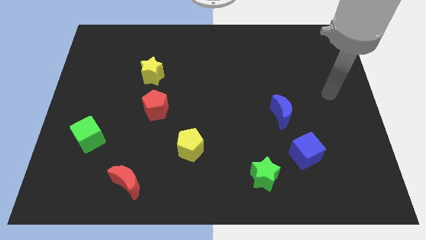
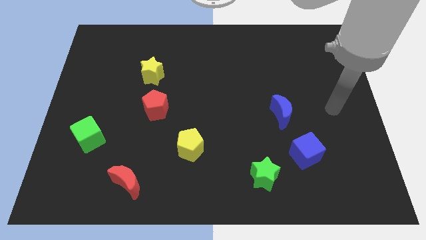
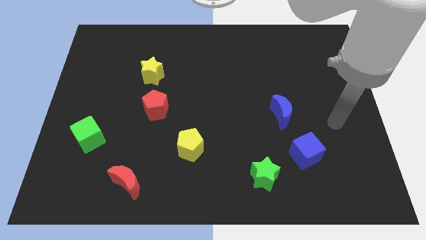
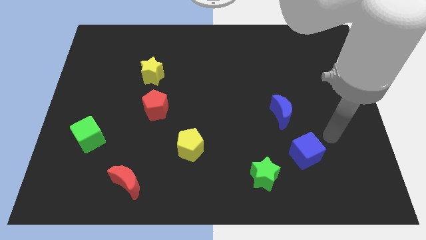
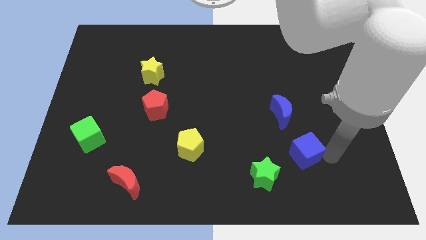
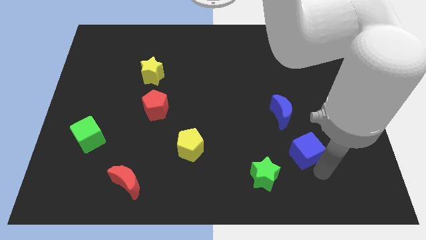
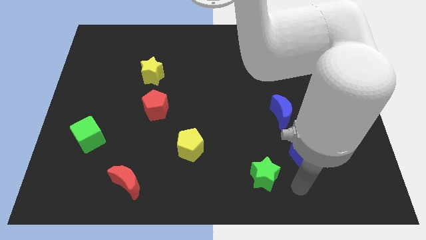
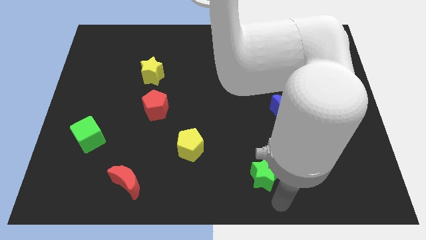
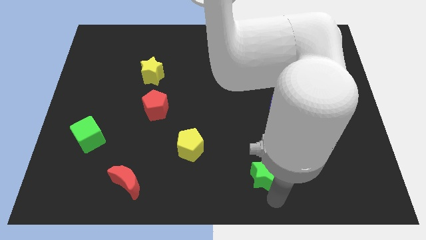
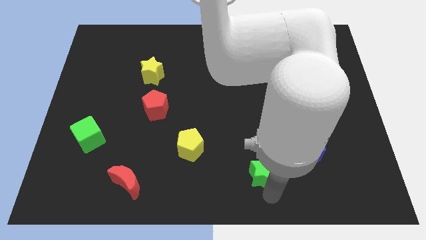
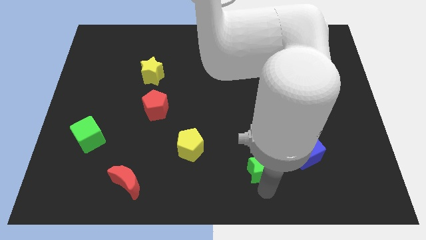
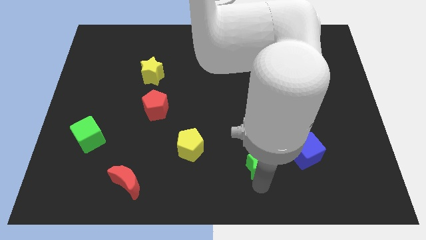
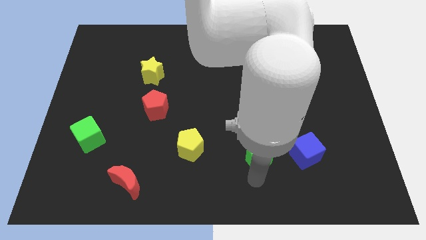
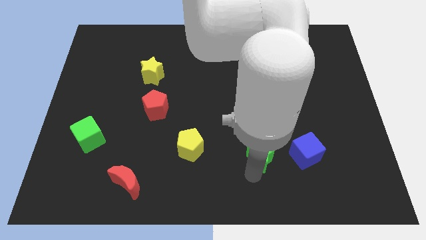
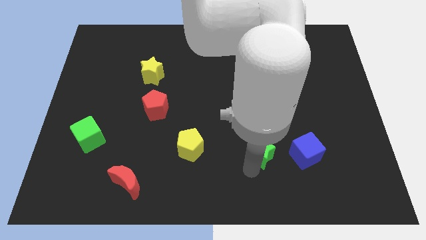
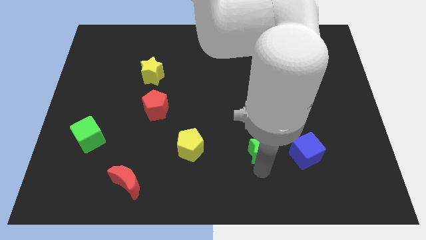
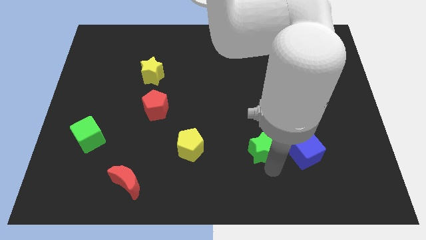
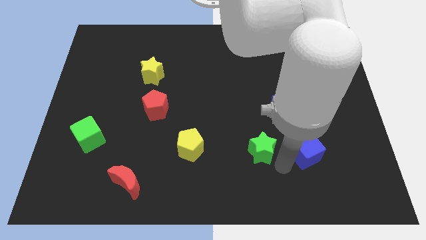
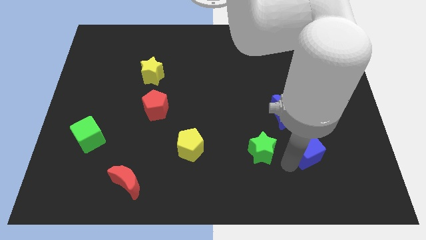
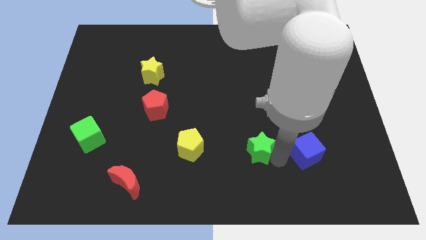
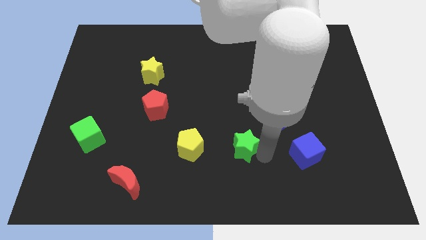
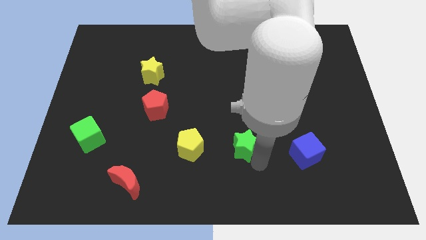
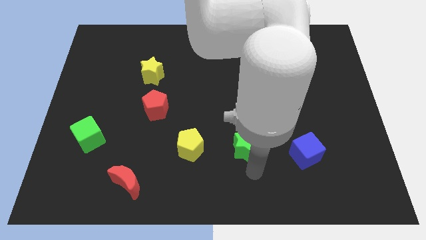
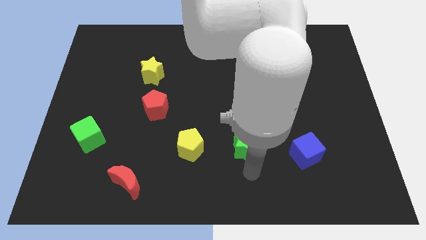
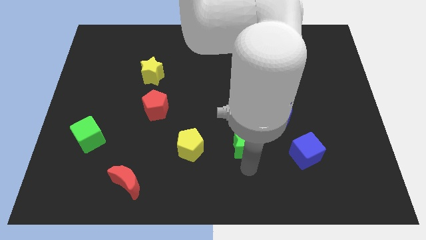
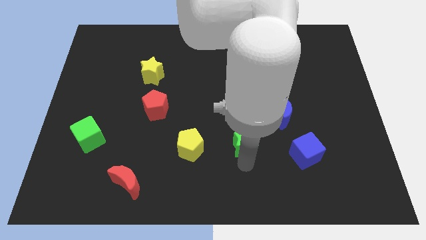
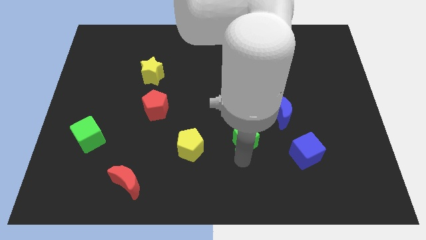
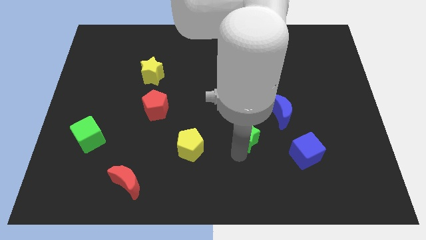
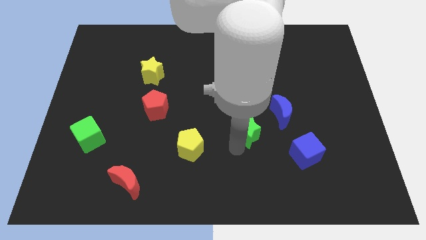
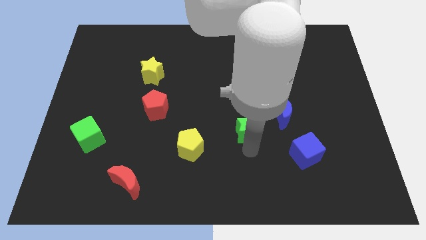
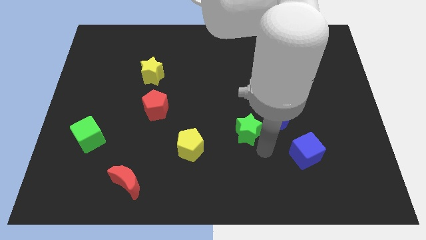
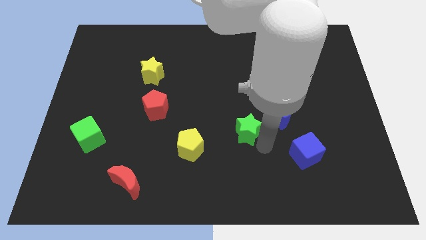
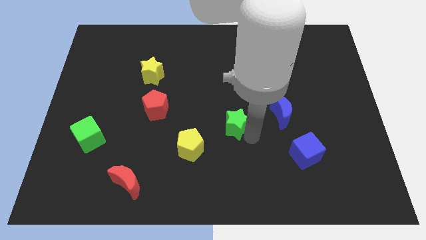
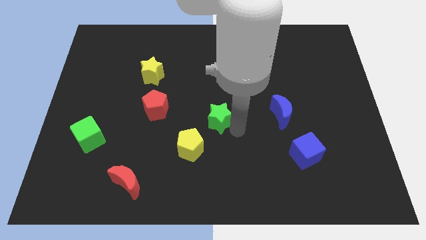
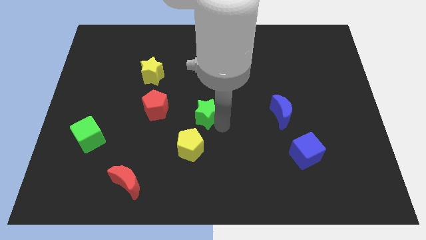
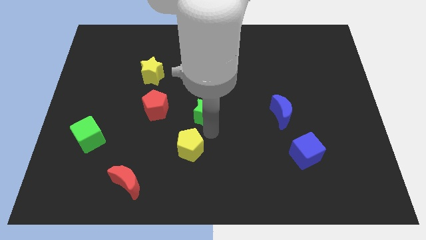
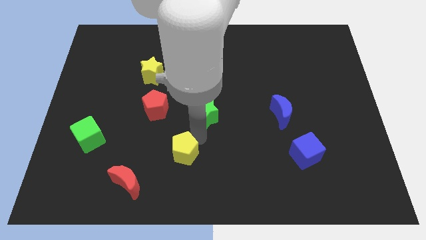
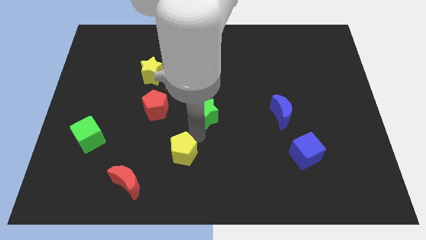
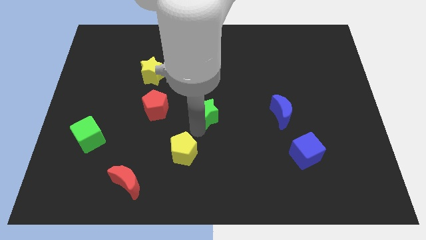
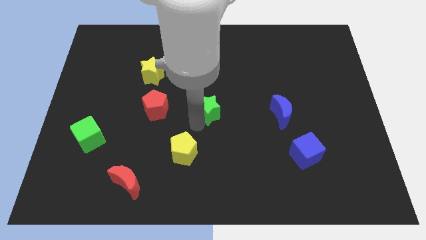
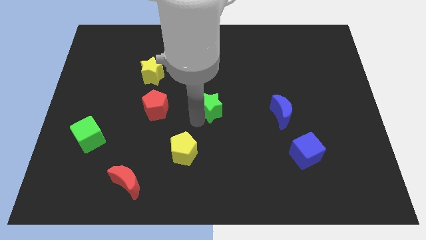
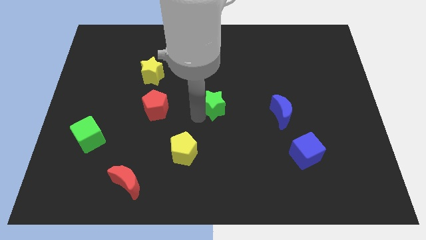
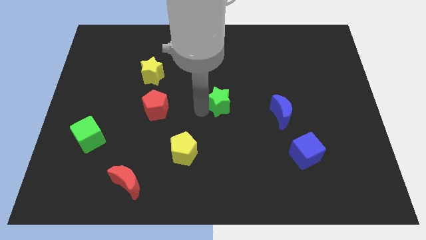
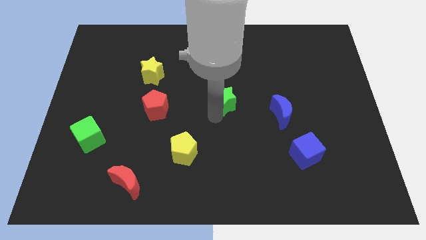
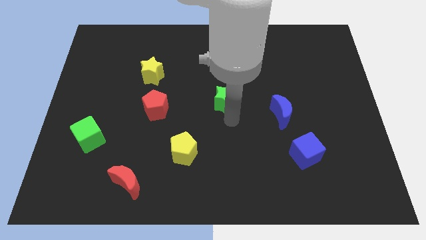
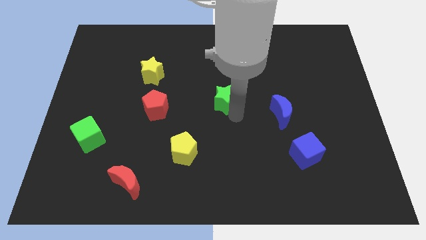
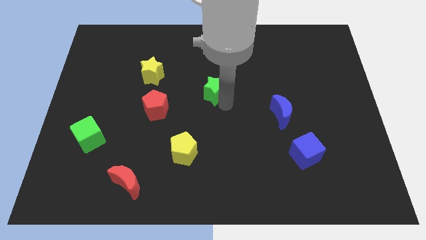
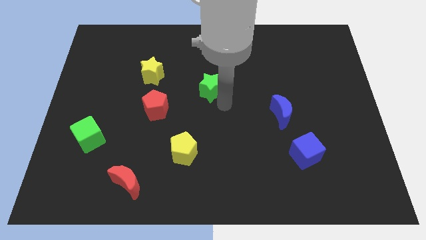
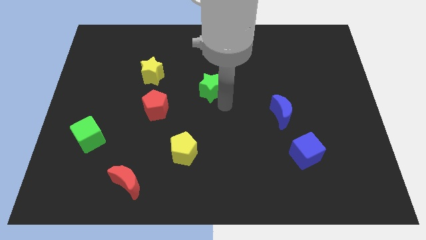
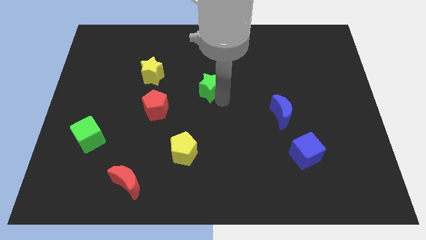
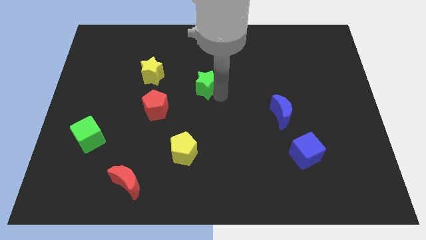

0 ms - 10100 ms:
push the green star just right of the yellow star

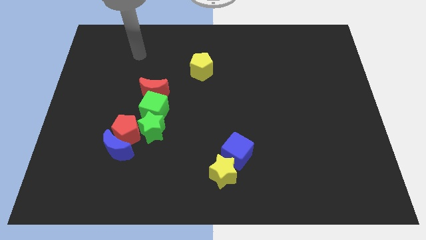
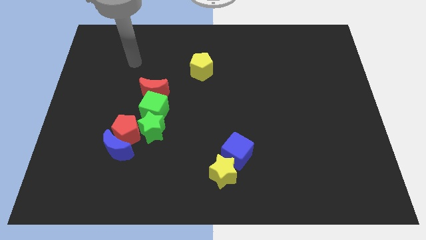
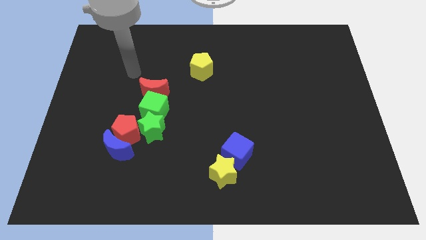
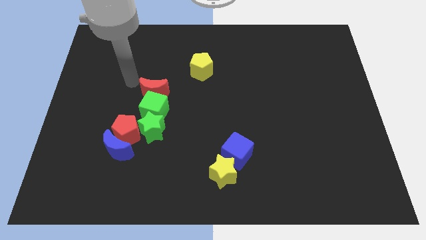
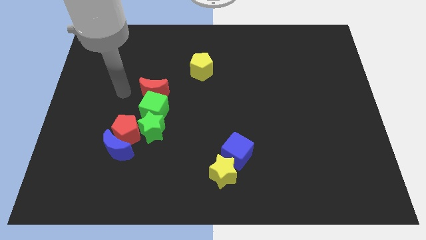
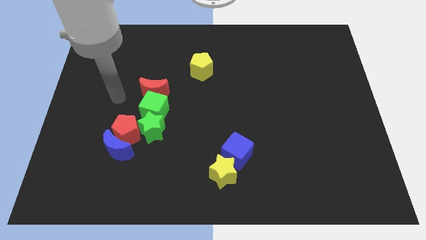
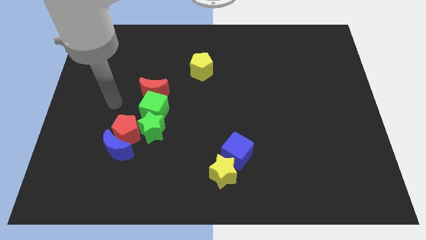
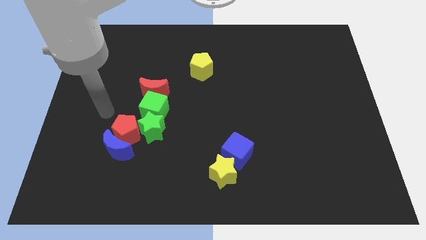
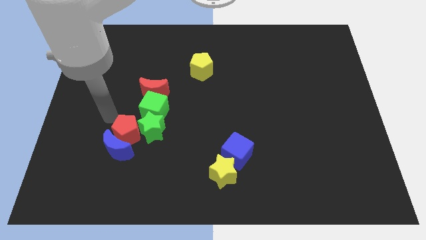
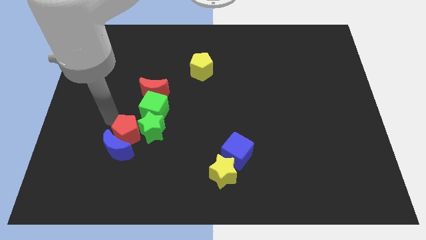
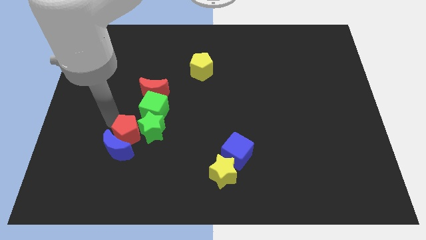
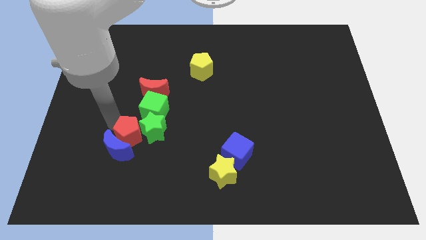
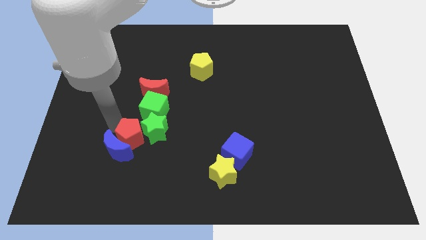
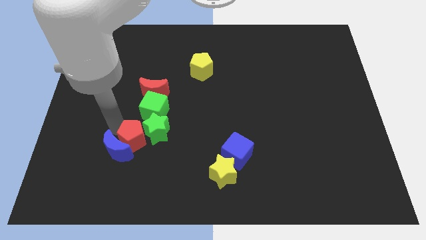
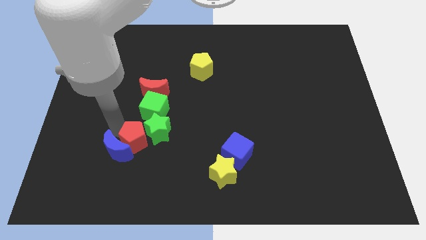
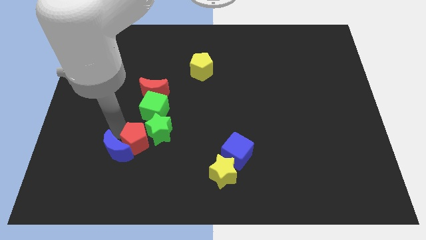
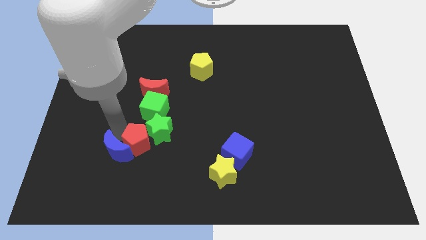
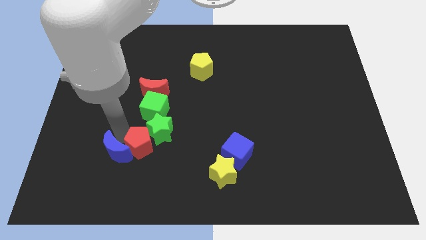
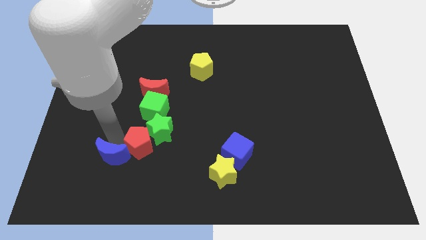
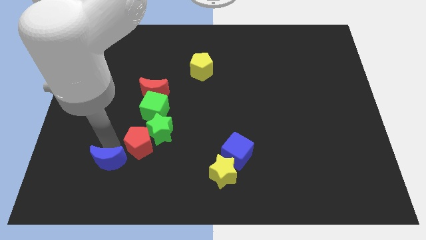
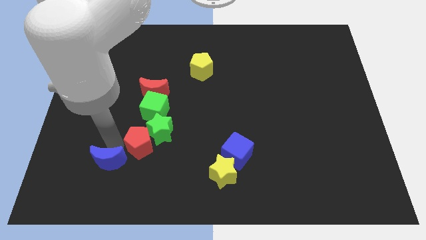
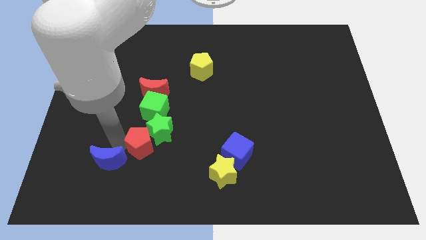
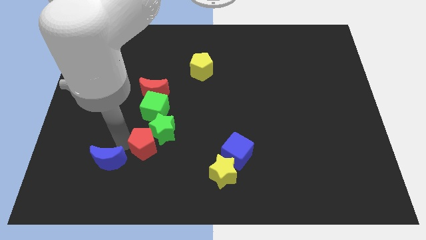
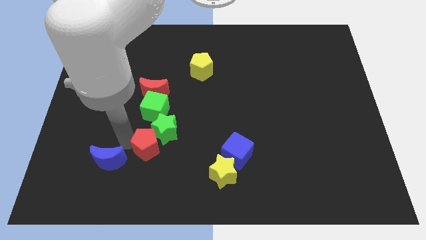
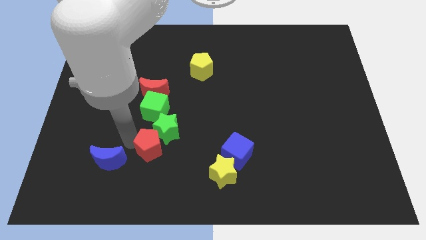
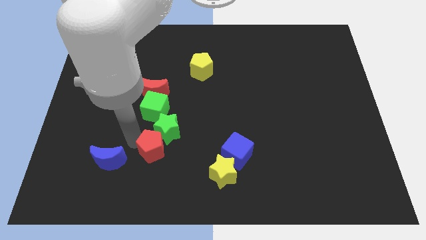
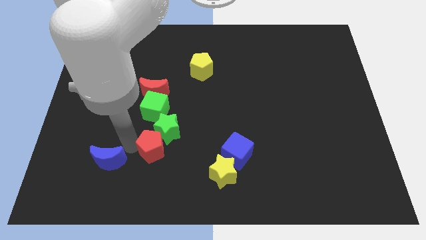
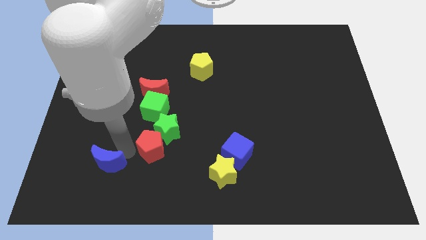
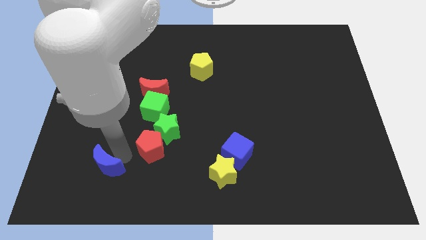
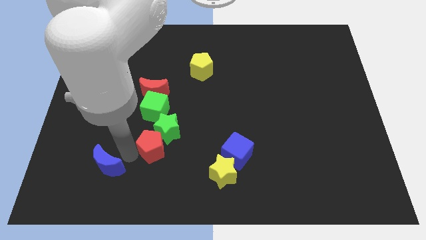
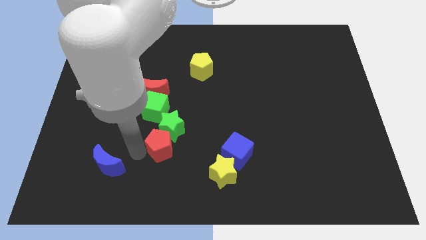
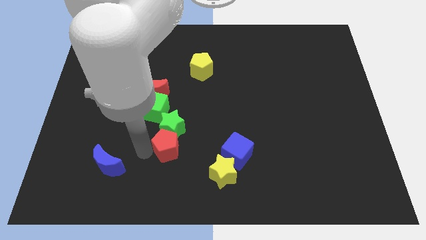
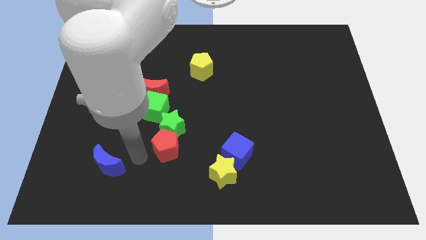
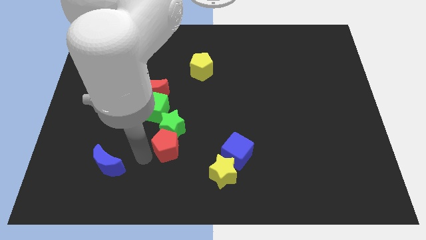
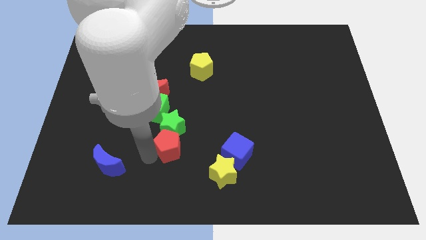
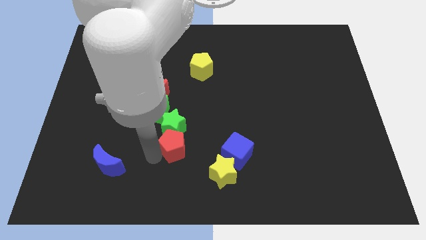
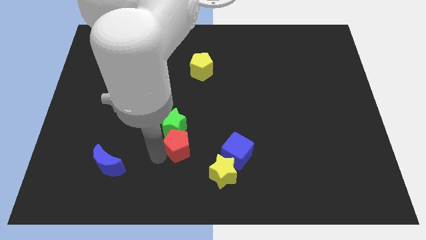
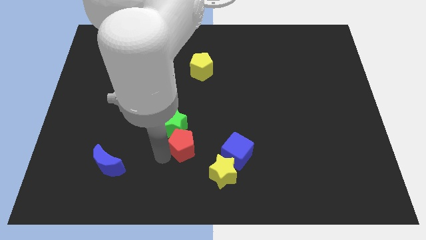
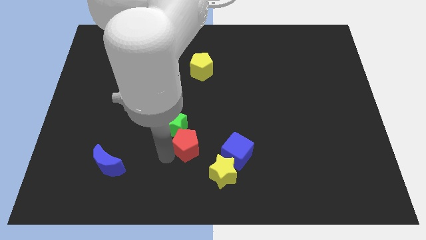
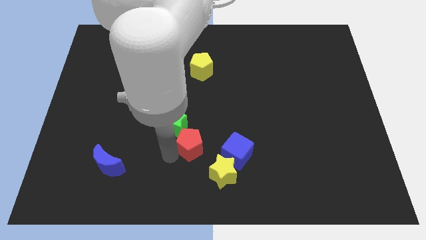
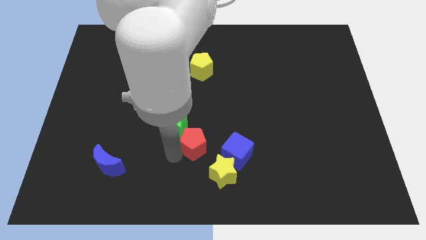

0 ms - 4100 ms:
put the red pentagon to the top left of the blue cube
